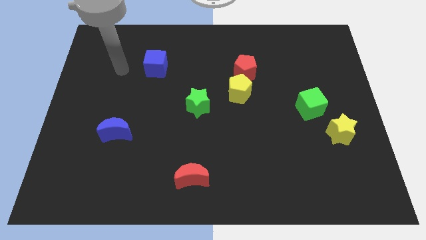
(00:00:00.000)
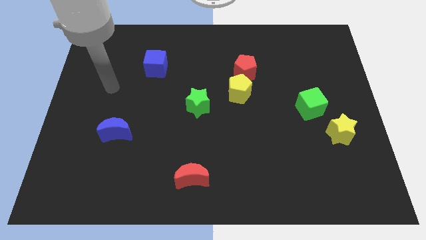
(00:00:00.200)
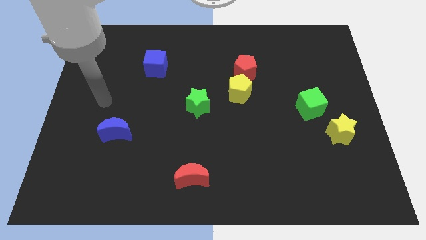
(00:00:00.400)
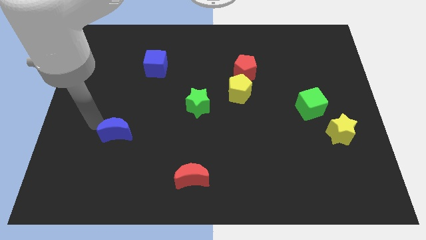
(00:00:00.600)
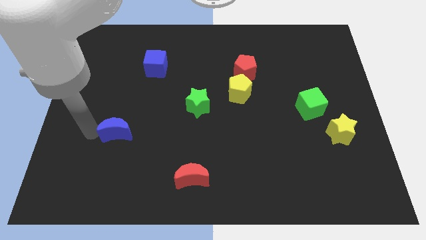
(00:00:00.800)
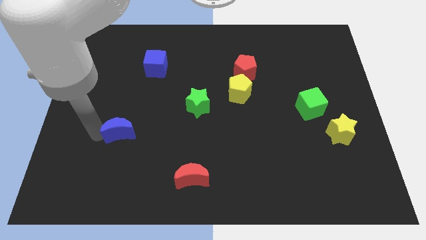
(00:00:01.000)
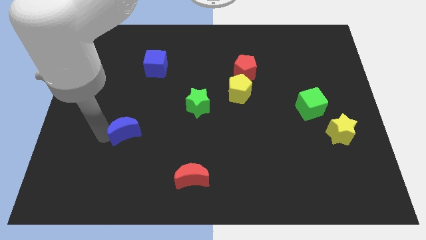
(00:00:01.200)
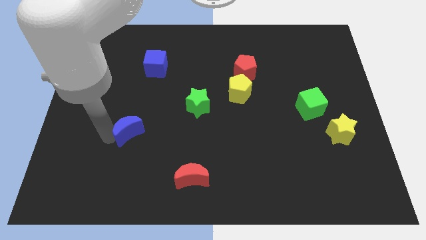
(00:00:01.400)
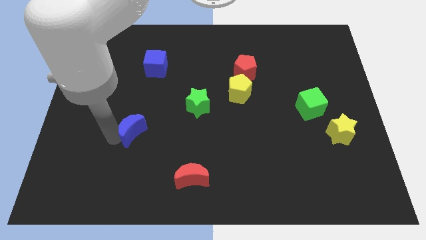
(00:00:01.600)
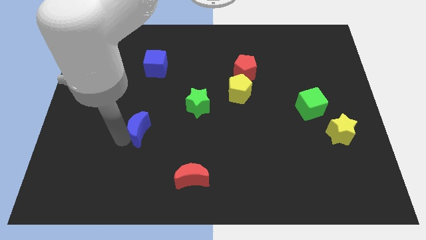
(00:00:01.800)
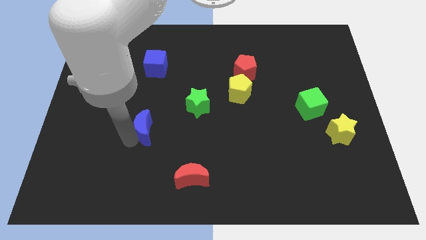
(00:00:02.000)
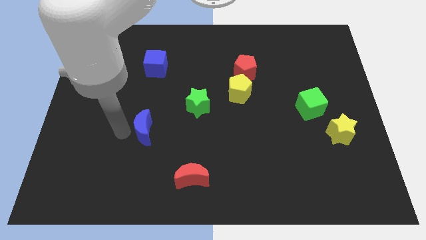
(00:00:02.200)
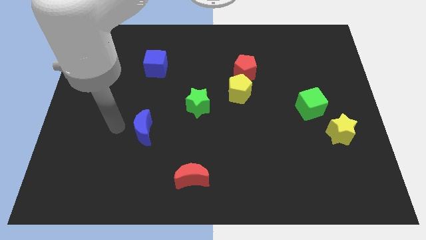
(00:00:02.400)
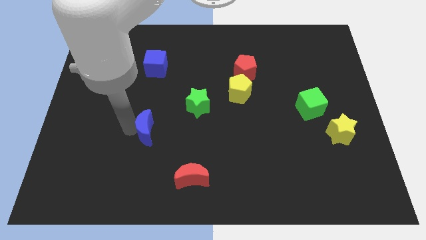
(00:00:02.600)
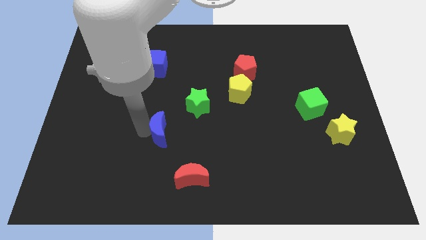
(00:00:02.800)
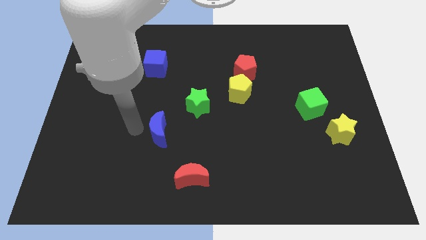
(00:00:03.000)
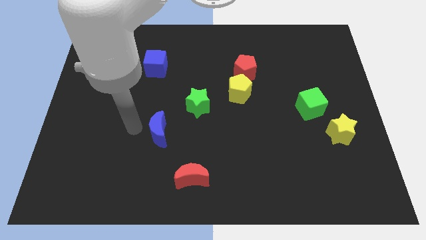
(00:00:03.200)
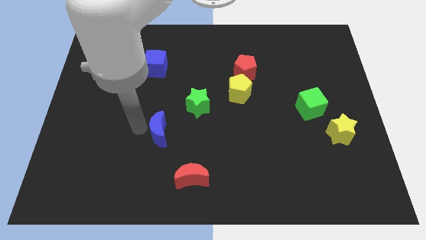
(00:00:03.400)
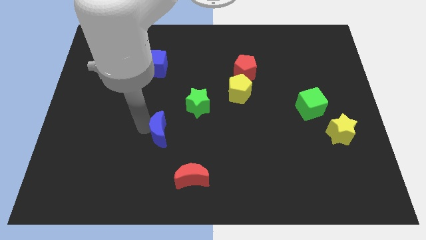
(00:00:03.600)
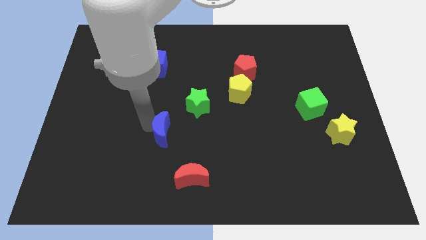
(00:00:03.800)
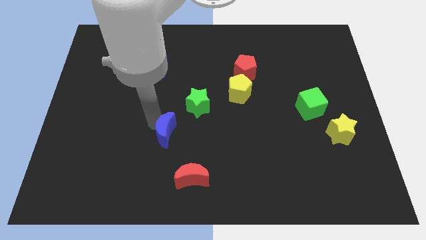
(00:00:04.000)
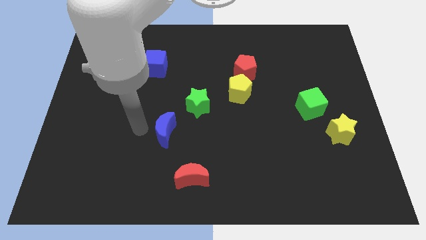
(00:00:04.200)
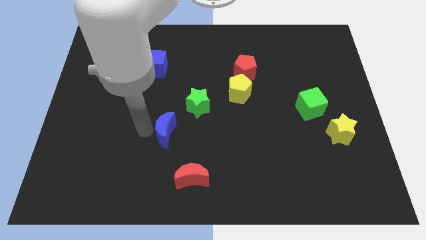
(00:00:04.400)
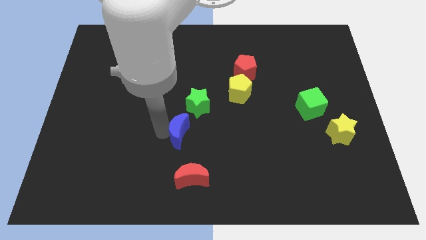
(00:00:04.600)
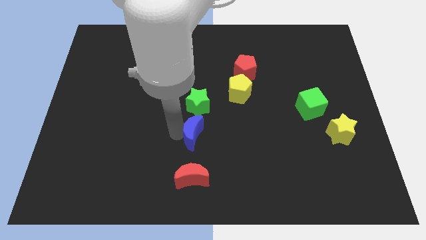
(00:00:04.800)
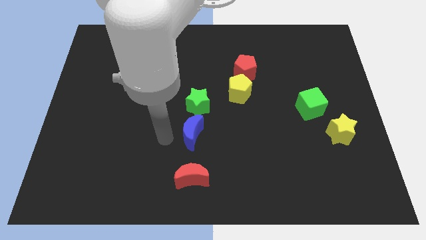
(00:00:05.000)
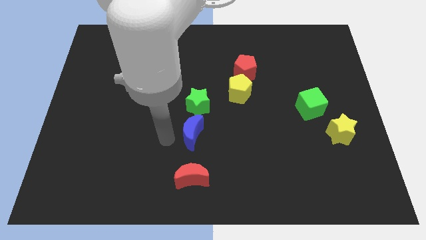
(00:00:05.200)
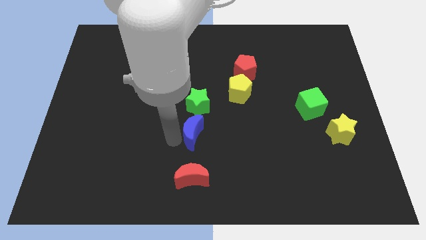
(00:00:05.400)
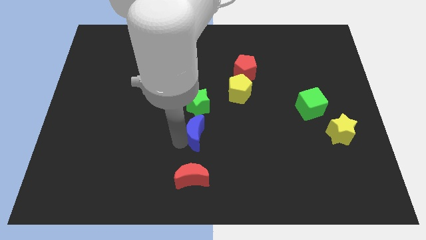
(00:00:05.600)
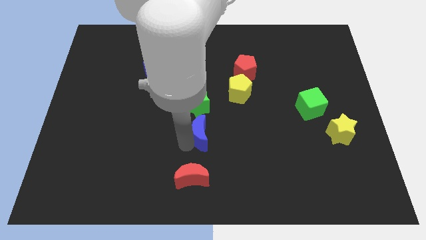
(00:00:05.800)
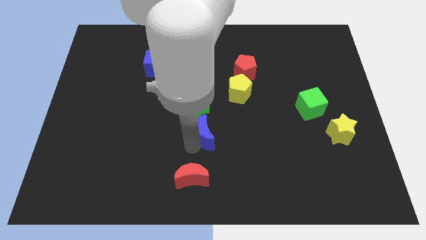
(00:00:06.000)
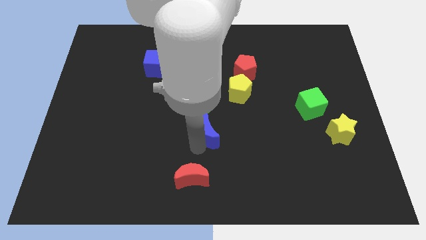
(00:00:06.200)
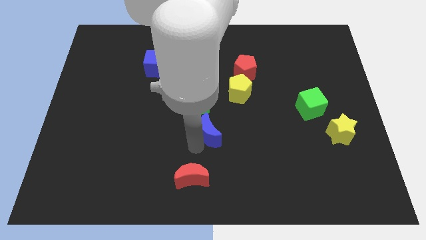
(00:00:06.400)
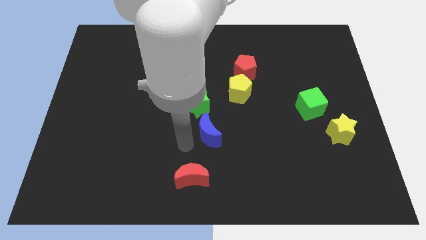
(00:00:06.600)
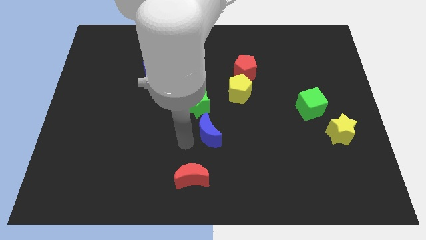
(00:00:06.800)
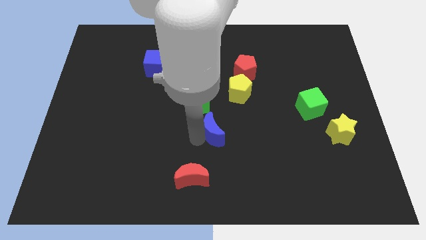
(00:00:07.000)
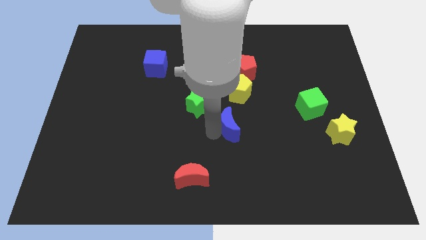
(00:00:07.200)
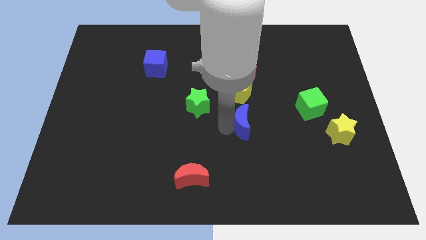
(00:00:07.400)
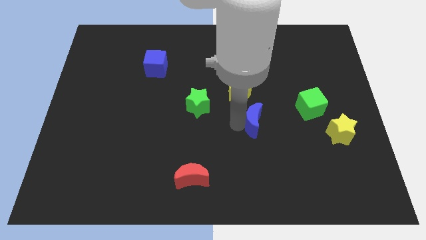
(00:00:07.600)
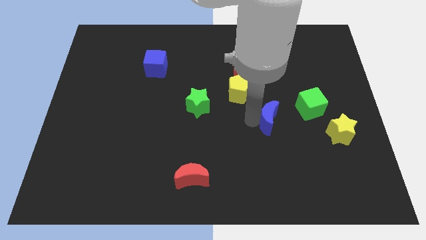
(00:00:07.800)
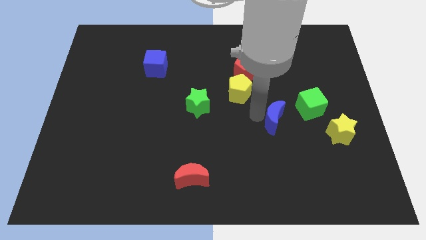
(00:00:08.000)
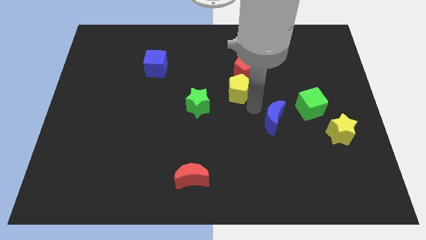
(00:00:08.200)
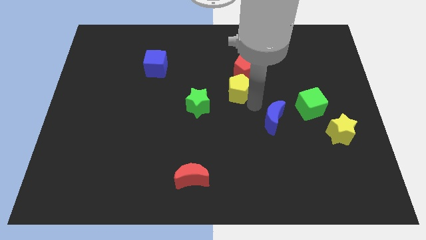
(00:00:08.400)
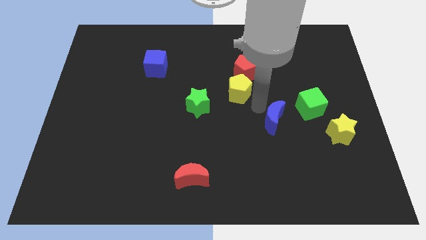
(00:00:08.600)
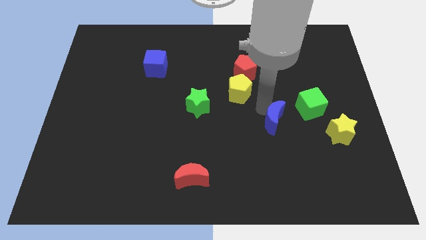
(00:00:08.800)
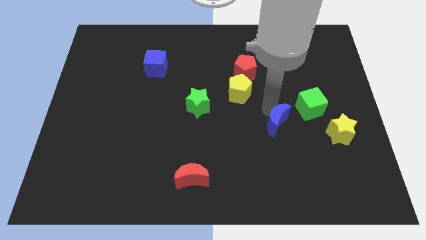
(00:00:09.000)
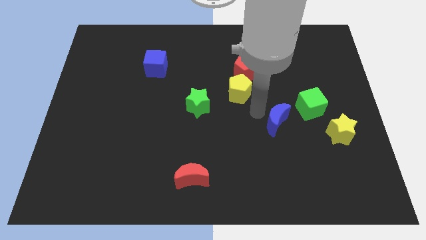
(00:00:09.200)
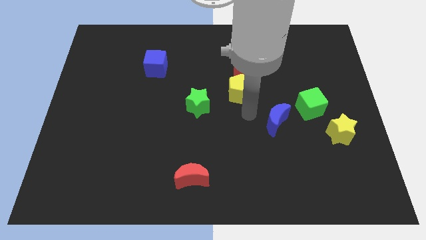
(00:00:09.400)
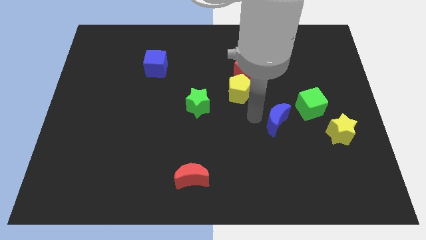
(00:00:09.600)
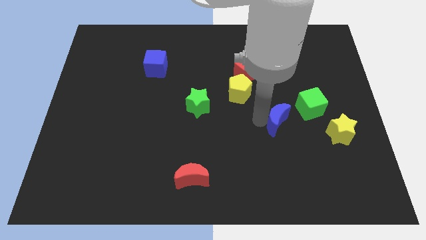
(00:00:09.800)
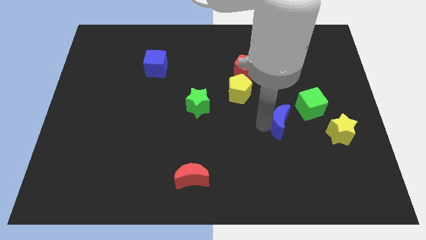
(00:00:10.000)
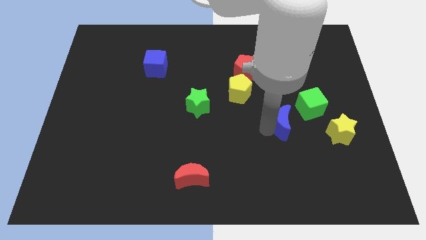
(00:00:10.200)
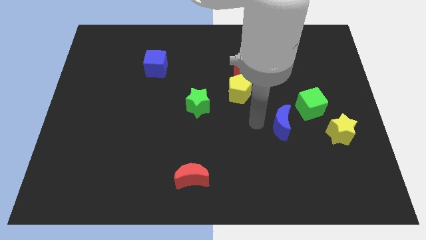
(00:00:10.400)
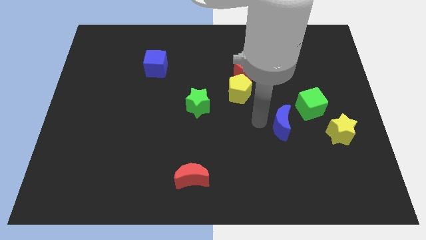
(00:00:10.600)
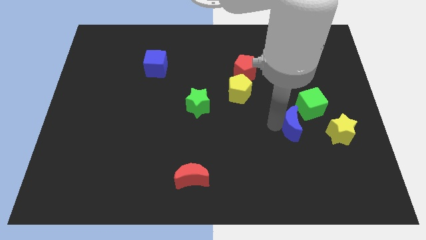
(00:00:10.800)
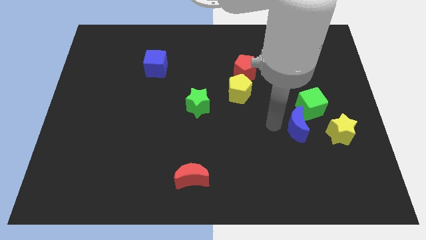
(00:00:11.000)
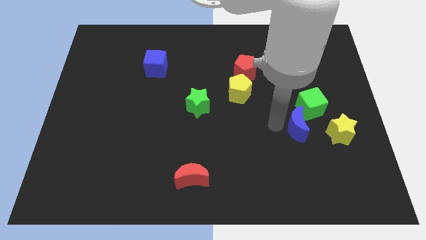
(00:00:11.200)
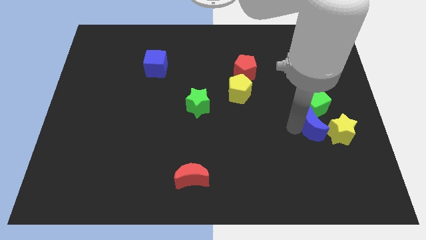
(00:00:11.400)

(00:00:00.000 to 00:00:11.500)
slide the blue moon towards the yellow star

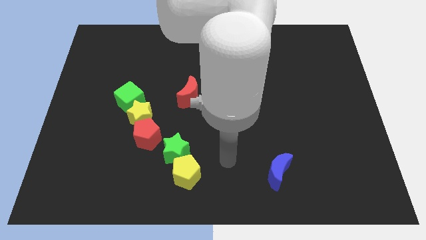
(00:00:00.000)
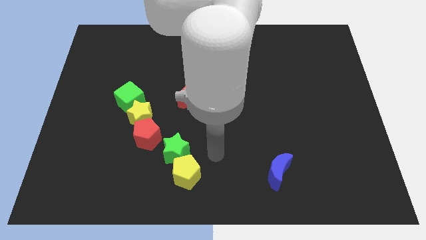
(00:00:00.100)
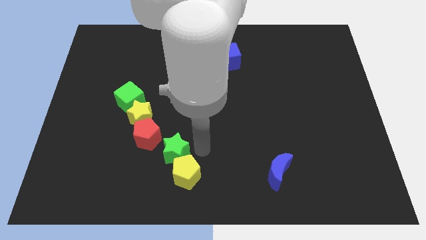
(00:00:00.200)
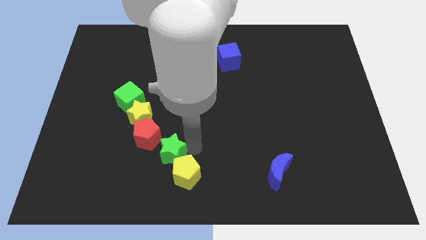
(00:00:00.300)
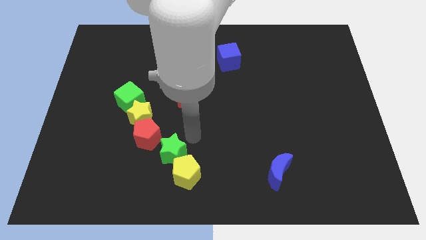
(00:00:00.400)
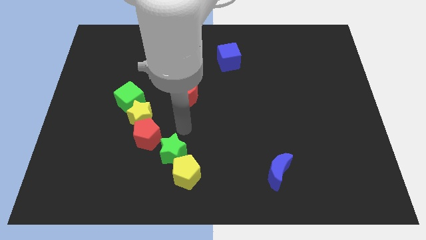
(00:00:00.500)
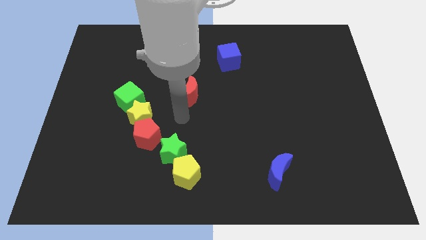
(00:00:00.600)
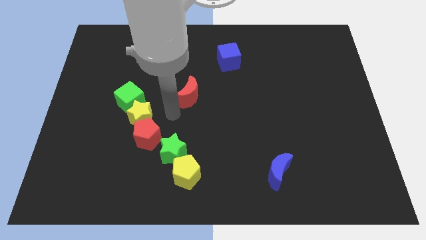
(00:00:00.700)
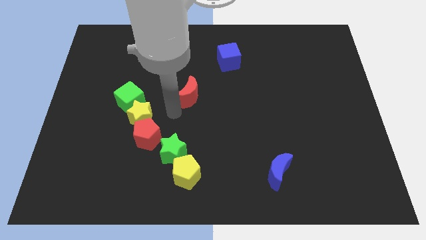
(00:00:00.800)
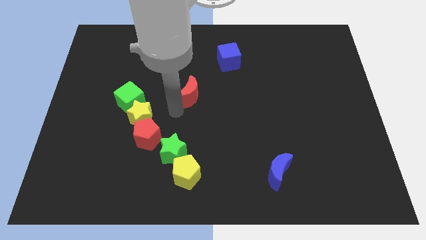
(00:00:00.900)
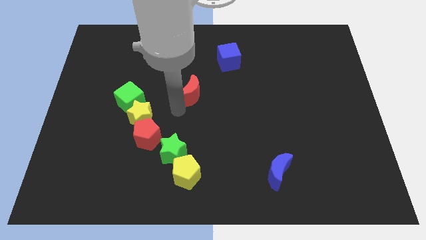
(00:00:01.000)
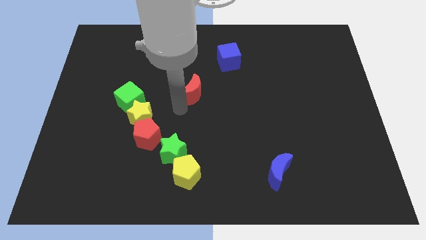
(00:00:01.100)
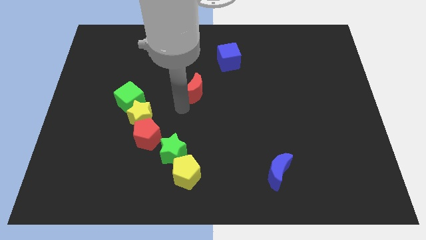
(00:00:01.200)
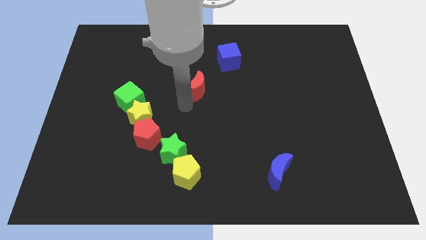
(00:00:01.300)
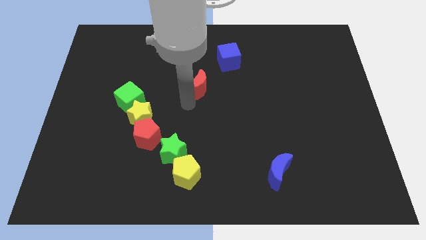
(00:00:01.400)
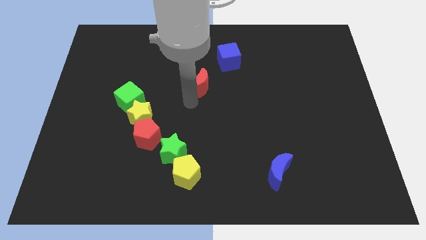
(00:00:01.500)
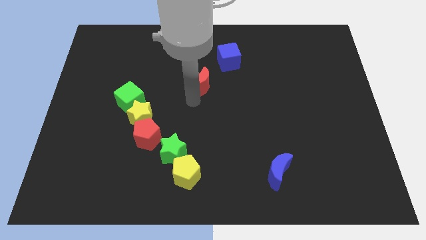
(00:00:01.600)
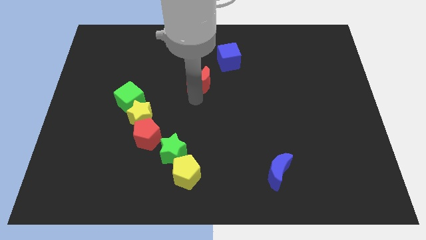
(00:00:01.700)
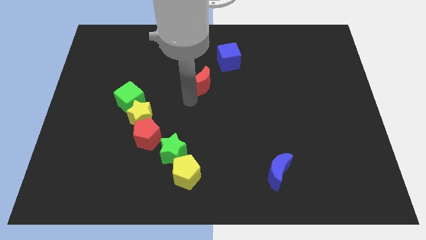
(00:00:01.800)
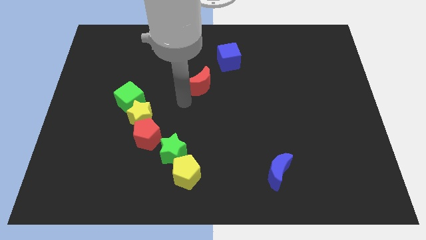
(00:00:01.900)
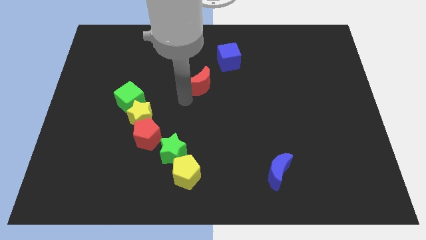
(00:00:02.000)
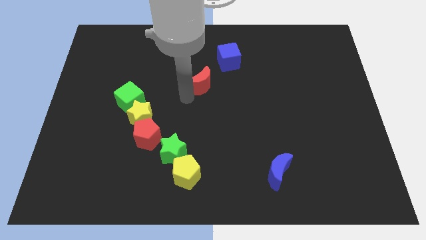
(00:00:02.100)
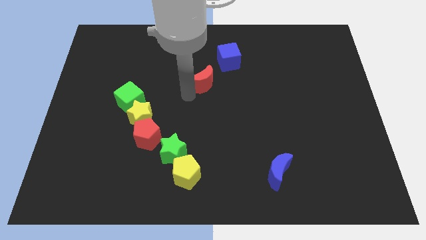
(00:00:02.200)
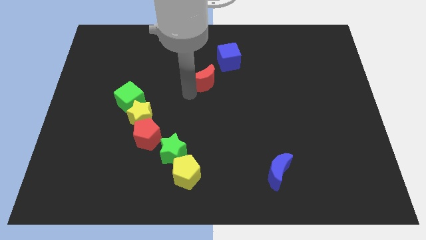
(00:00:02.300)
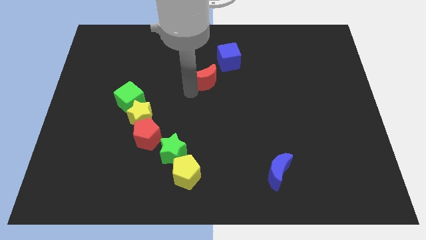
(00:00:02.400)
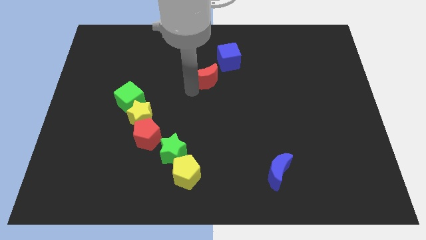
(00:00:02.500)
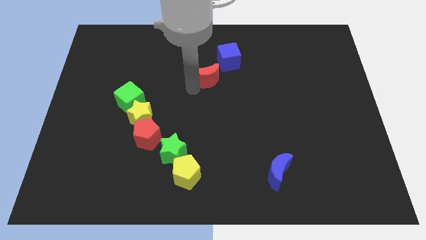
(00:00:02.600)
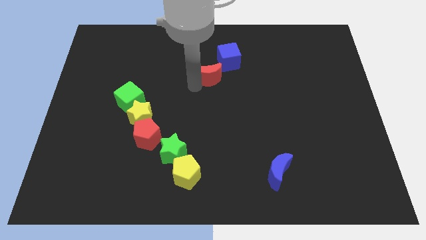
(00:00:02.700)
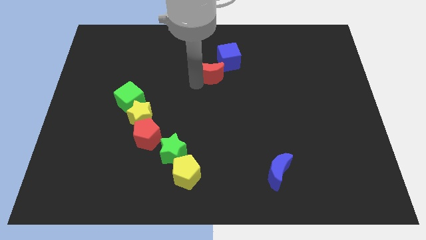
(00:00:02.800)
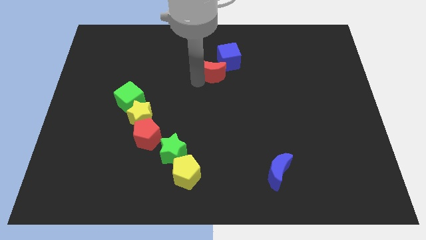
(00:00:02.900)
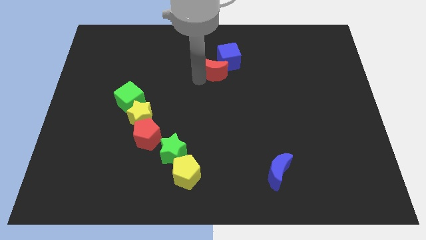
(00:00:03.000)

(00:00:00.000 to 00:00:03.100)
put the red moon close to the blue cube
